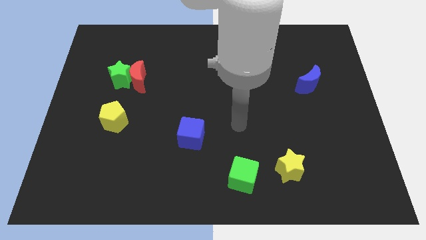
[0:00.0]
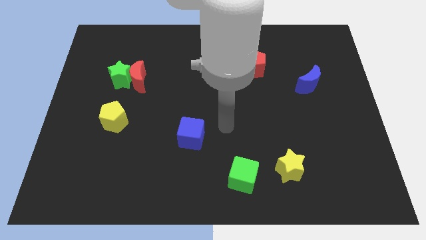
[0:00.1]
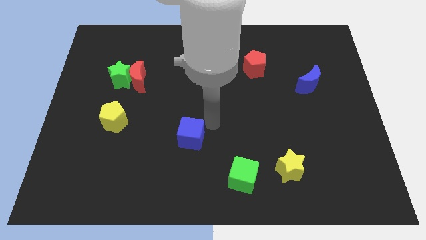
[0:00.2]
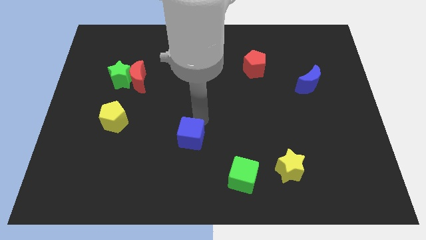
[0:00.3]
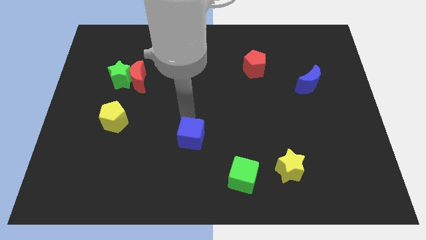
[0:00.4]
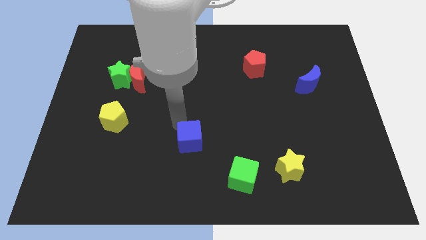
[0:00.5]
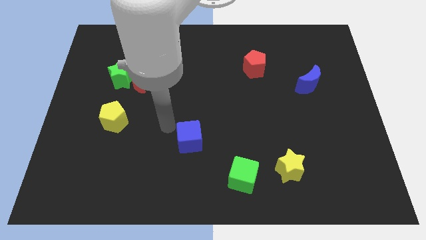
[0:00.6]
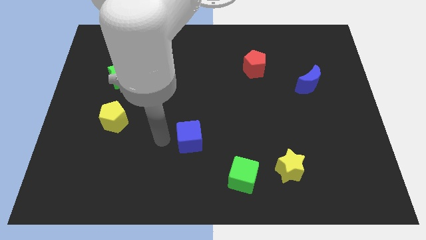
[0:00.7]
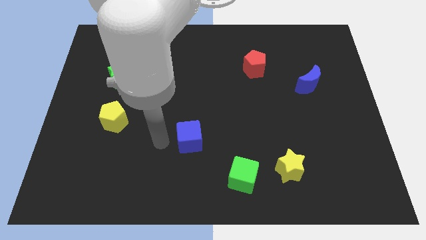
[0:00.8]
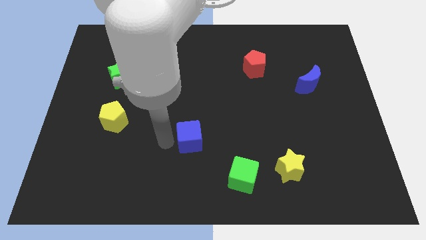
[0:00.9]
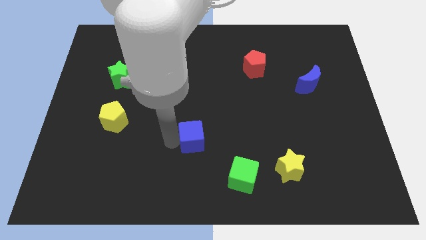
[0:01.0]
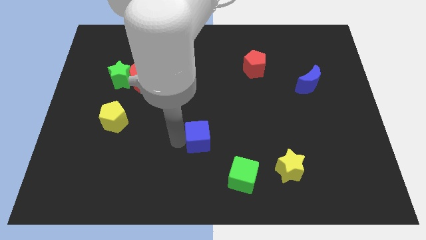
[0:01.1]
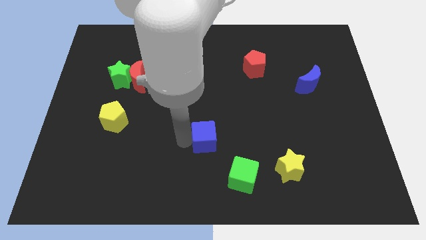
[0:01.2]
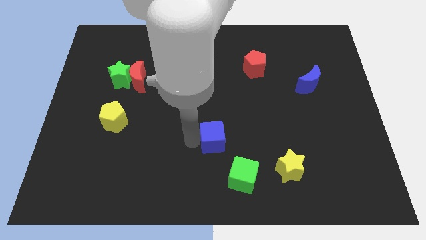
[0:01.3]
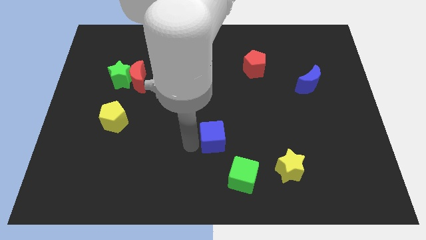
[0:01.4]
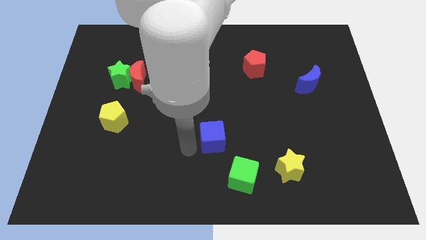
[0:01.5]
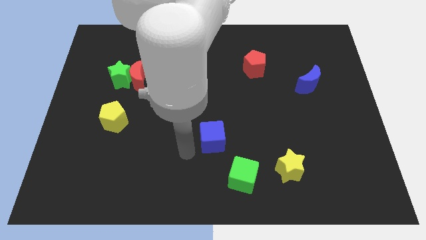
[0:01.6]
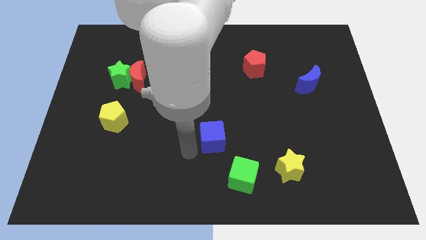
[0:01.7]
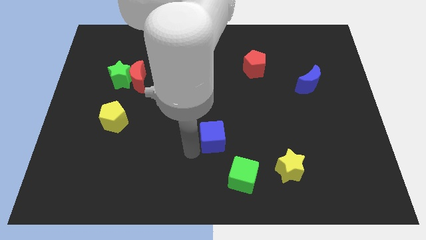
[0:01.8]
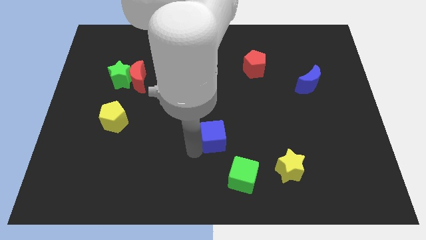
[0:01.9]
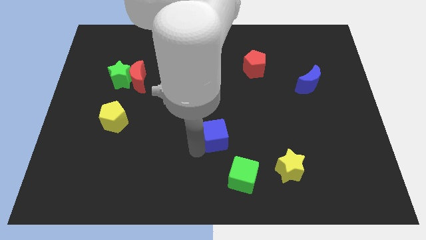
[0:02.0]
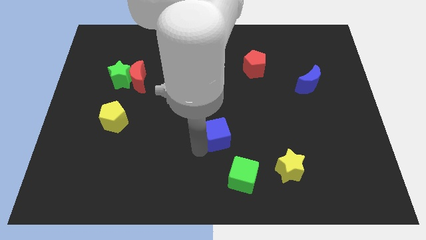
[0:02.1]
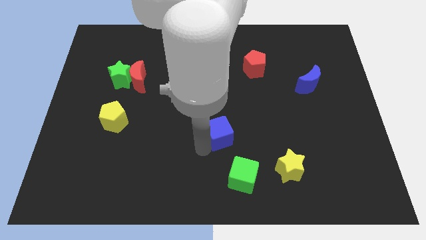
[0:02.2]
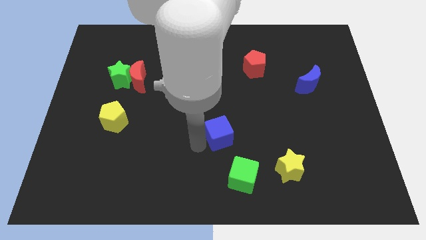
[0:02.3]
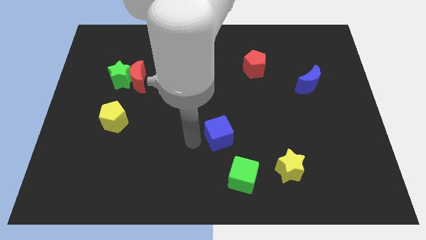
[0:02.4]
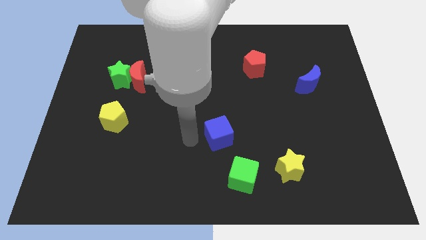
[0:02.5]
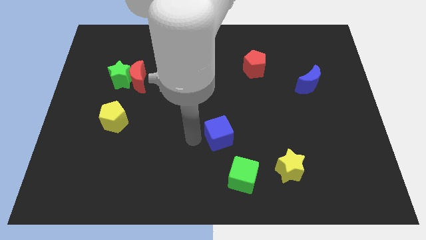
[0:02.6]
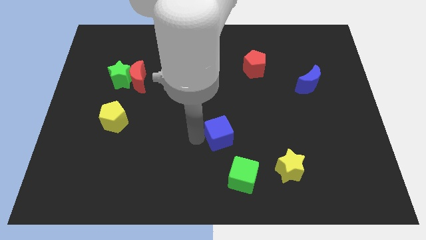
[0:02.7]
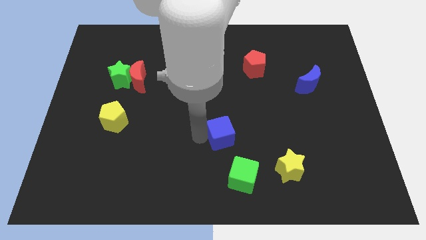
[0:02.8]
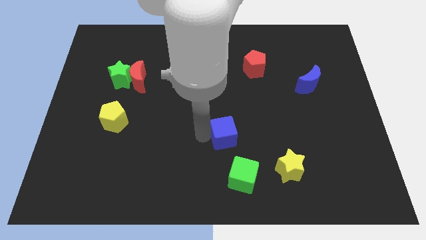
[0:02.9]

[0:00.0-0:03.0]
move the blue cube a bit right

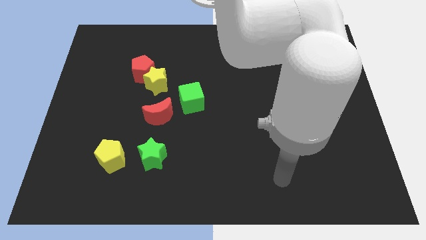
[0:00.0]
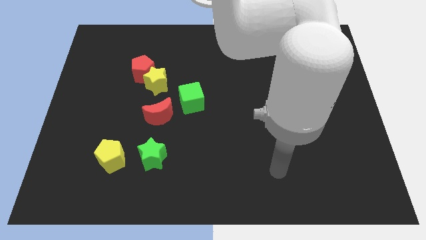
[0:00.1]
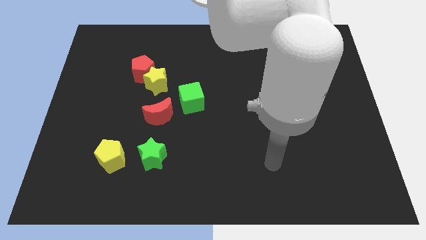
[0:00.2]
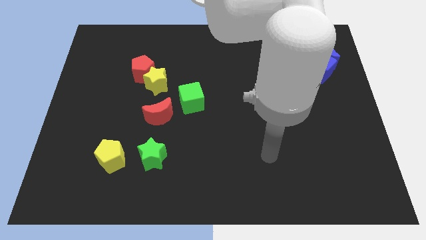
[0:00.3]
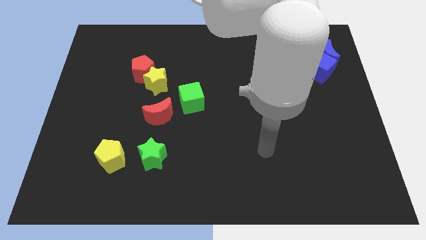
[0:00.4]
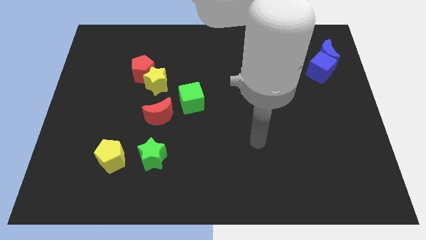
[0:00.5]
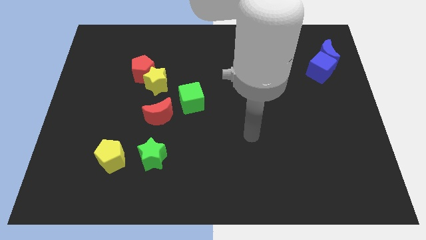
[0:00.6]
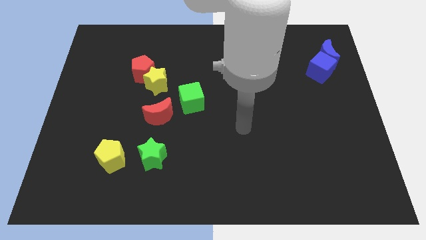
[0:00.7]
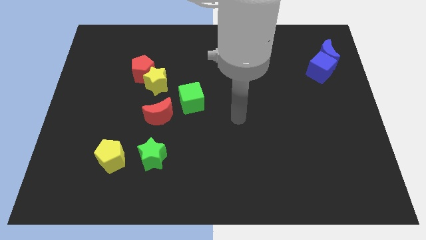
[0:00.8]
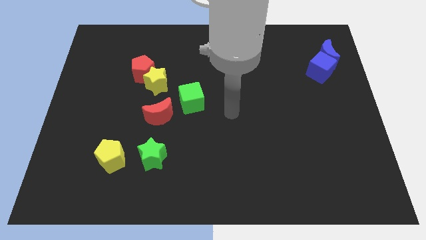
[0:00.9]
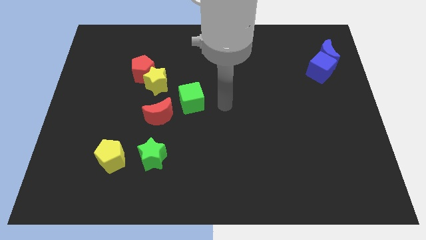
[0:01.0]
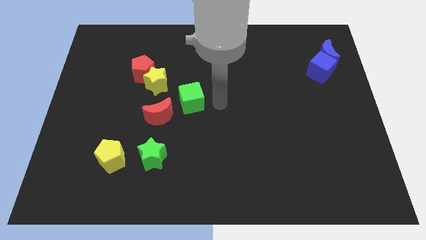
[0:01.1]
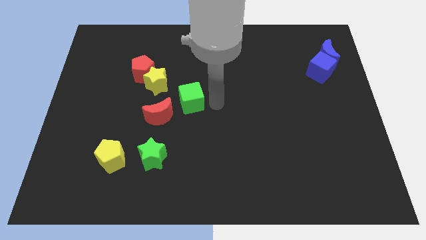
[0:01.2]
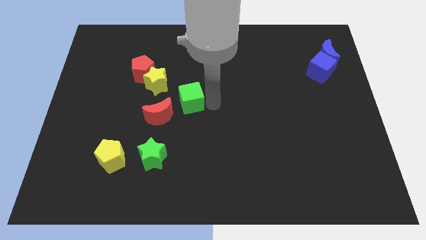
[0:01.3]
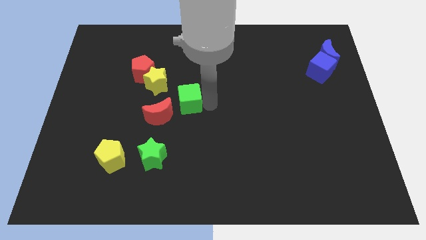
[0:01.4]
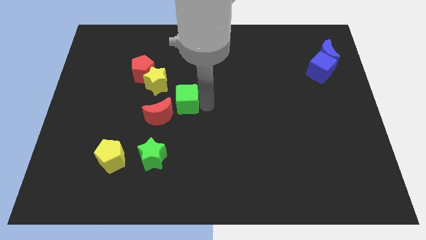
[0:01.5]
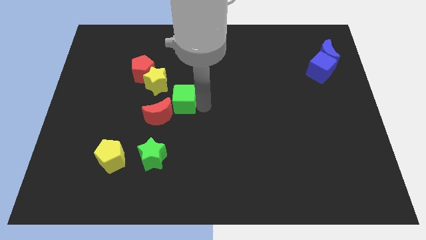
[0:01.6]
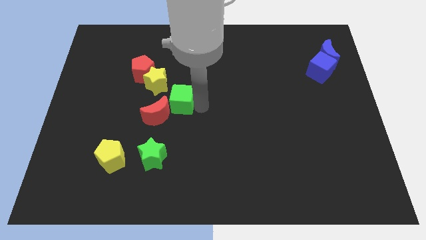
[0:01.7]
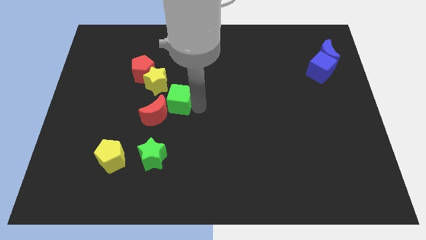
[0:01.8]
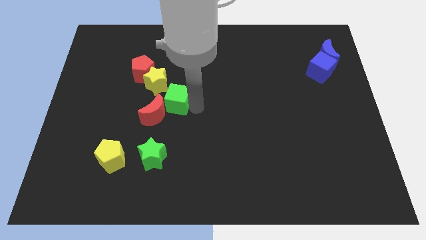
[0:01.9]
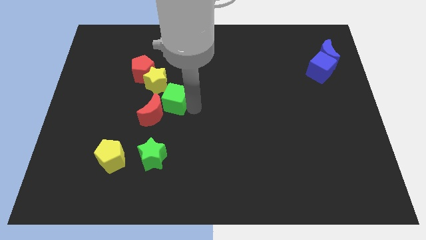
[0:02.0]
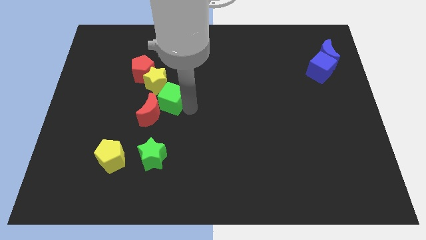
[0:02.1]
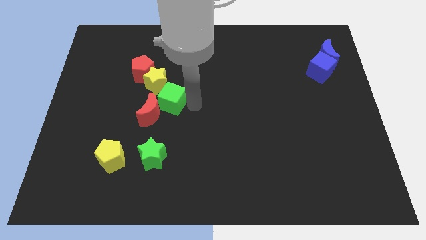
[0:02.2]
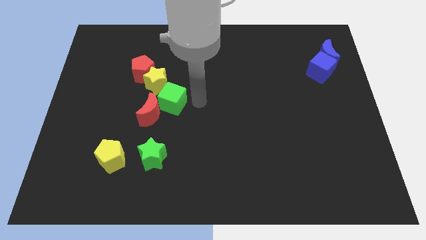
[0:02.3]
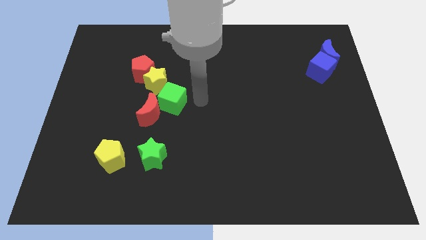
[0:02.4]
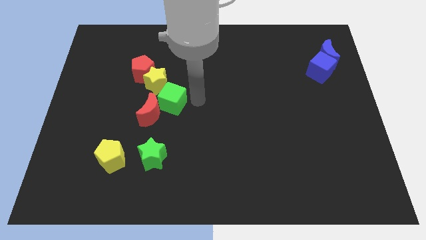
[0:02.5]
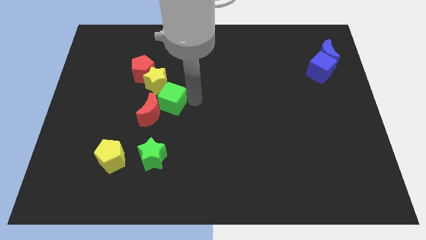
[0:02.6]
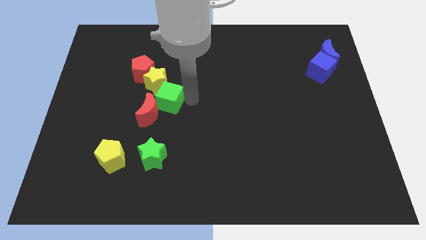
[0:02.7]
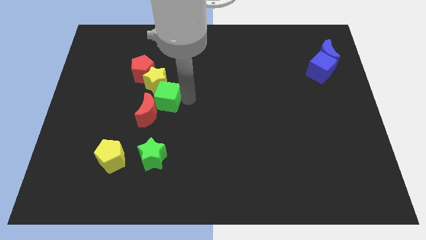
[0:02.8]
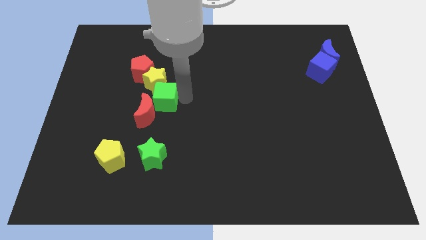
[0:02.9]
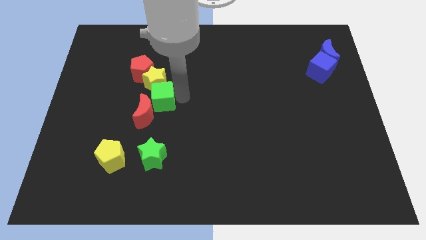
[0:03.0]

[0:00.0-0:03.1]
slightly push the green cube left

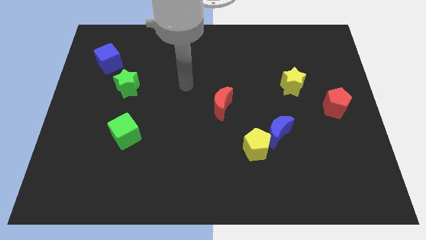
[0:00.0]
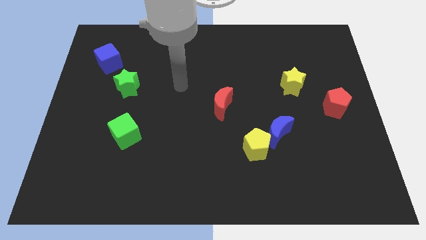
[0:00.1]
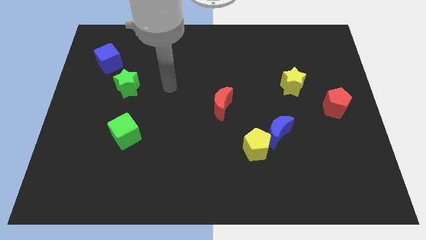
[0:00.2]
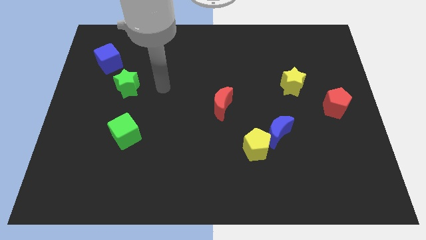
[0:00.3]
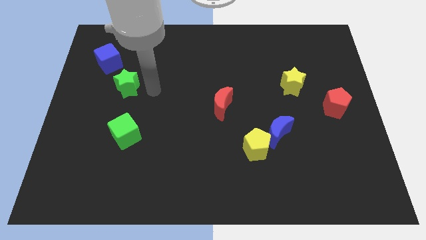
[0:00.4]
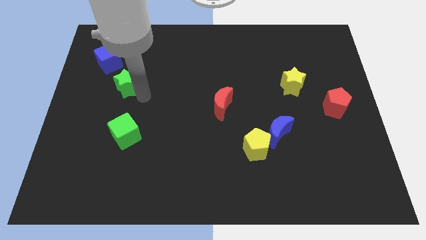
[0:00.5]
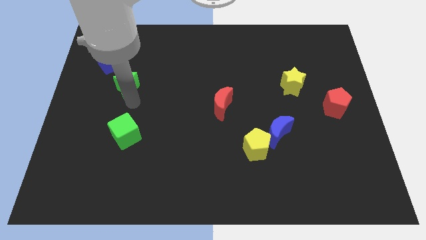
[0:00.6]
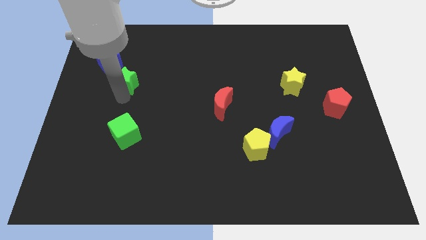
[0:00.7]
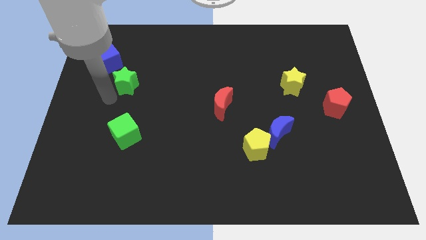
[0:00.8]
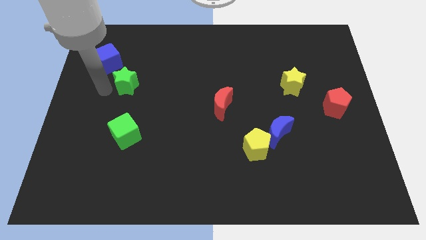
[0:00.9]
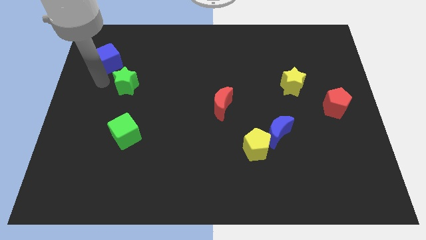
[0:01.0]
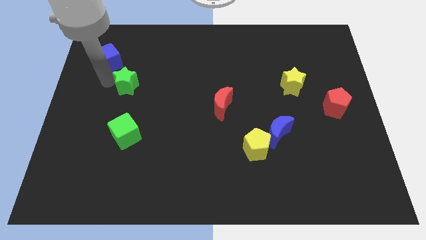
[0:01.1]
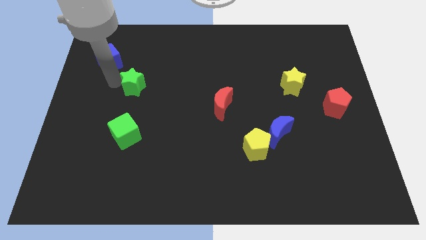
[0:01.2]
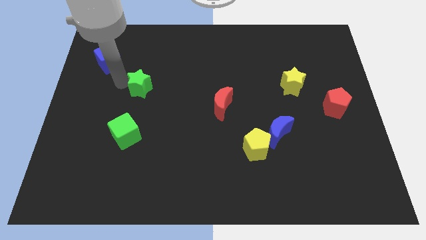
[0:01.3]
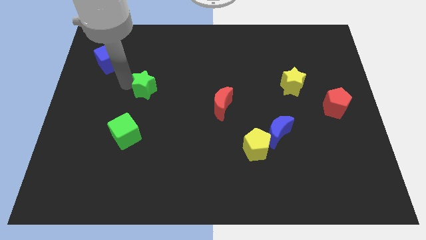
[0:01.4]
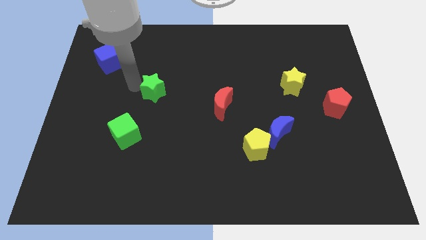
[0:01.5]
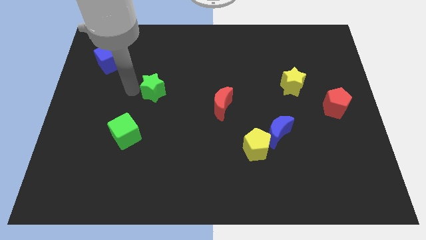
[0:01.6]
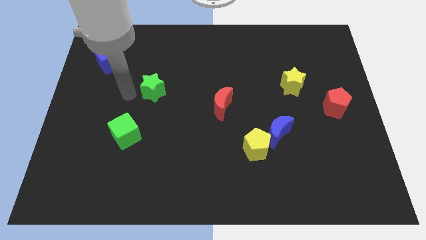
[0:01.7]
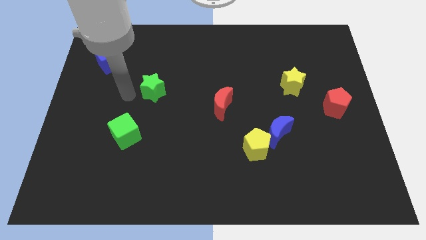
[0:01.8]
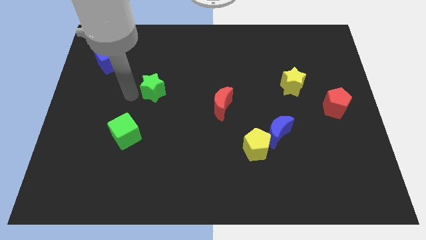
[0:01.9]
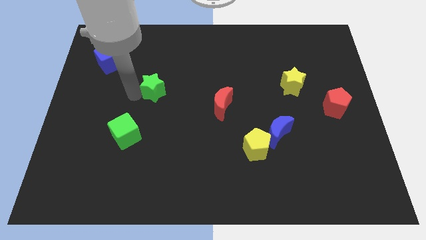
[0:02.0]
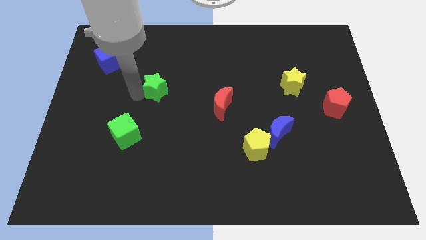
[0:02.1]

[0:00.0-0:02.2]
slightly slide the green star right
